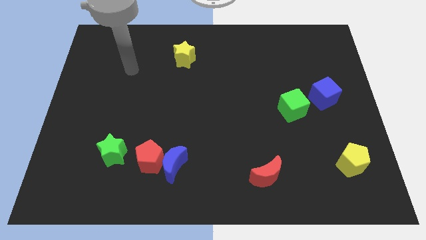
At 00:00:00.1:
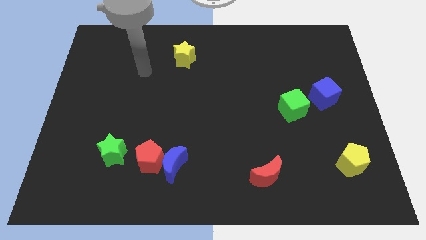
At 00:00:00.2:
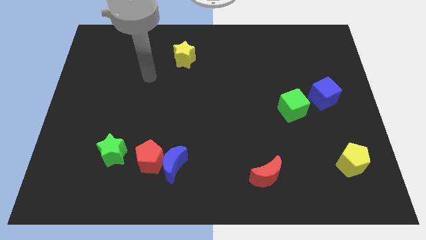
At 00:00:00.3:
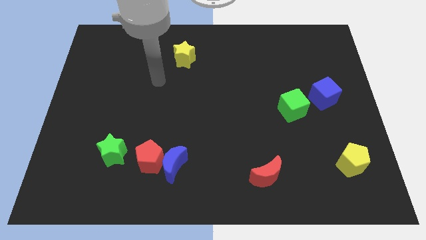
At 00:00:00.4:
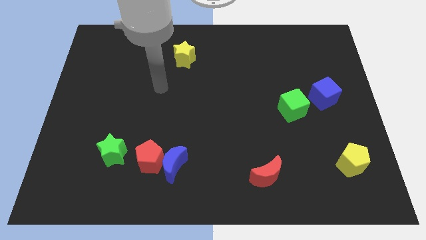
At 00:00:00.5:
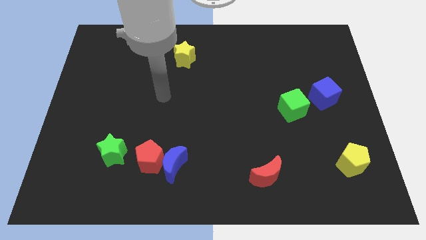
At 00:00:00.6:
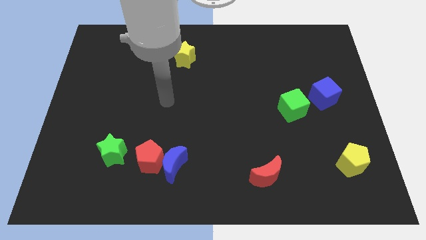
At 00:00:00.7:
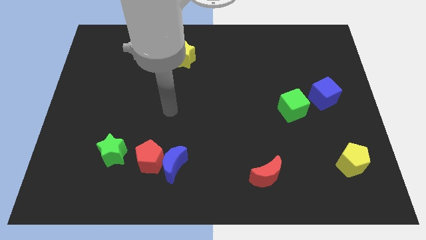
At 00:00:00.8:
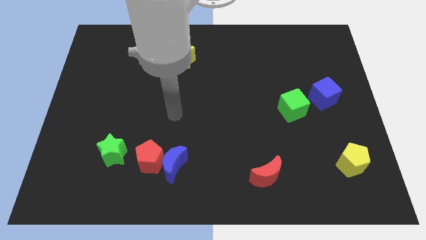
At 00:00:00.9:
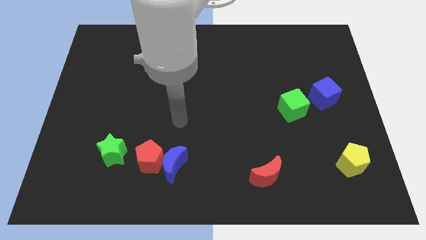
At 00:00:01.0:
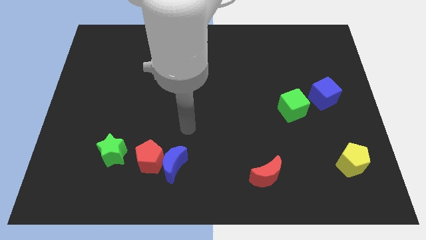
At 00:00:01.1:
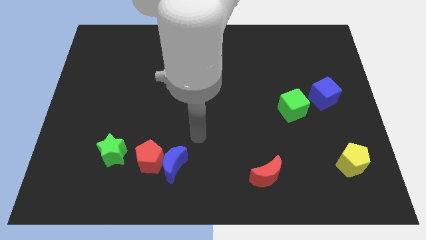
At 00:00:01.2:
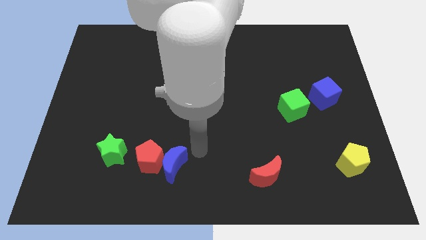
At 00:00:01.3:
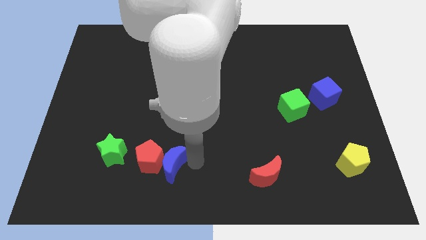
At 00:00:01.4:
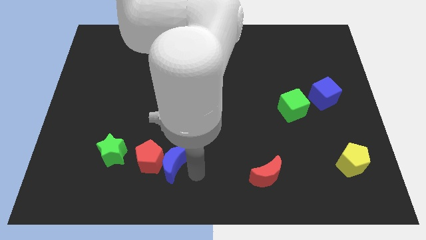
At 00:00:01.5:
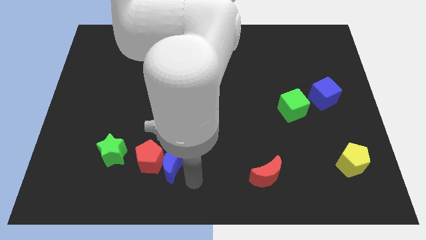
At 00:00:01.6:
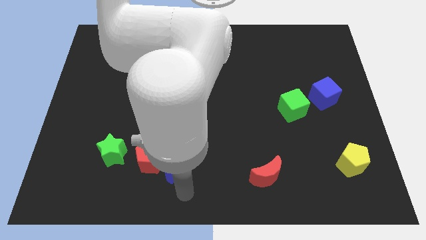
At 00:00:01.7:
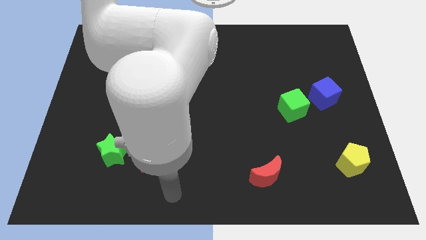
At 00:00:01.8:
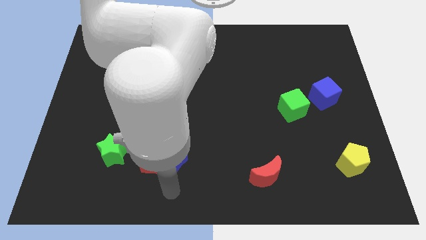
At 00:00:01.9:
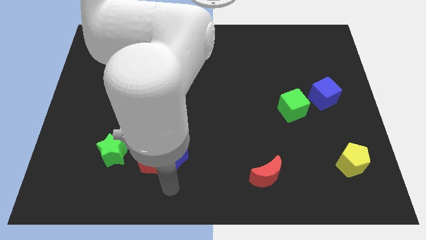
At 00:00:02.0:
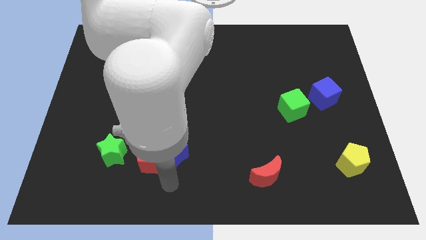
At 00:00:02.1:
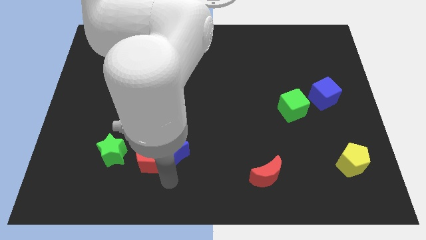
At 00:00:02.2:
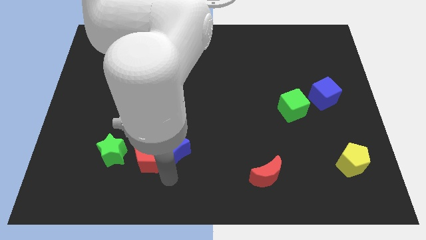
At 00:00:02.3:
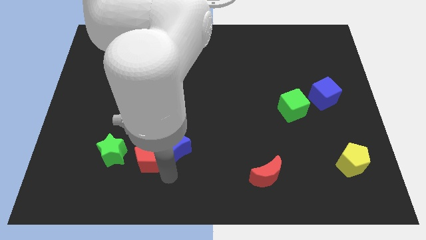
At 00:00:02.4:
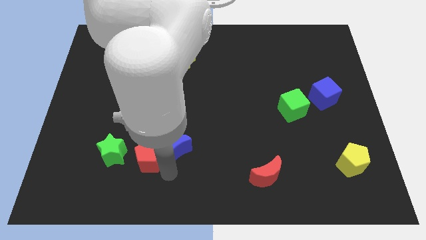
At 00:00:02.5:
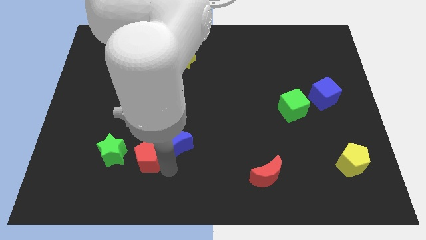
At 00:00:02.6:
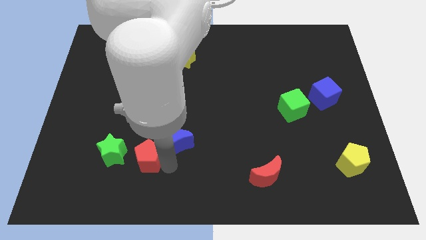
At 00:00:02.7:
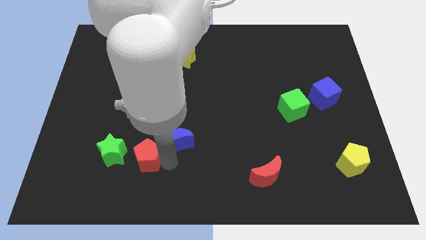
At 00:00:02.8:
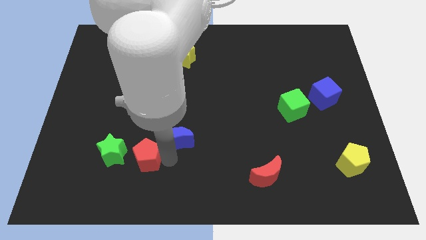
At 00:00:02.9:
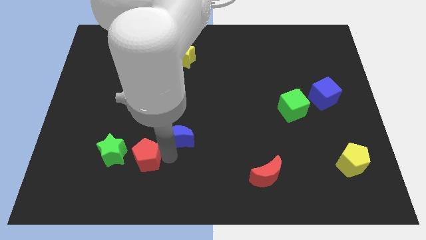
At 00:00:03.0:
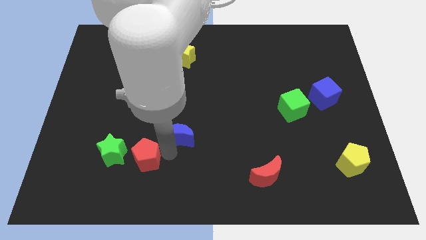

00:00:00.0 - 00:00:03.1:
slide the blue moon somewhat up

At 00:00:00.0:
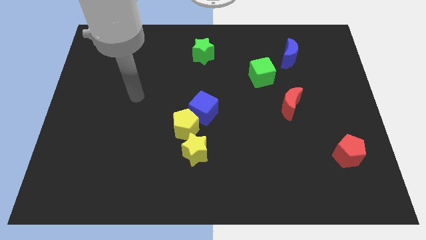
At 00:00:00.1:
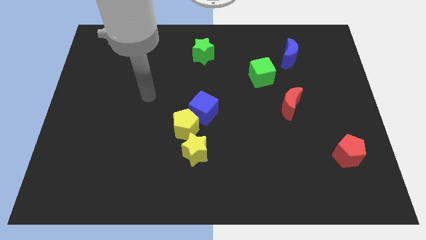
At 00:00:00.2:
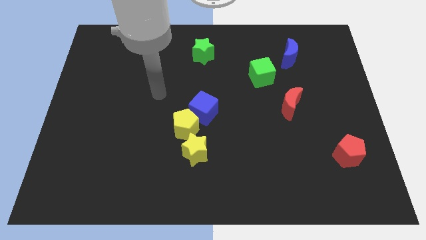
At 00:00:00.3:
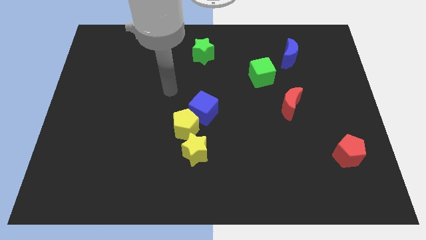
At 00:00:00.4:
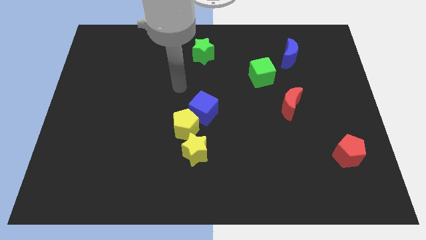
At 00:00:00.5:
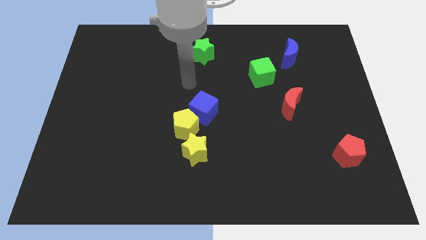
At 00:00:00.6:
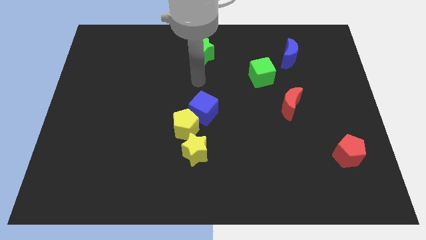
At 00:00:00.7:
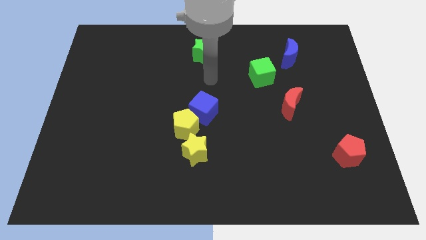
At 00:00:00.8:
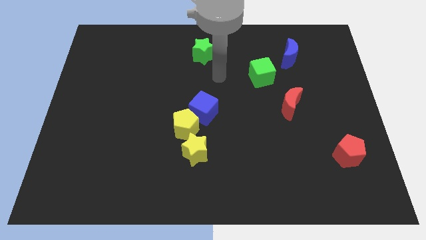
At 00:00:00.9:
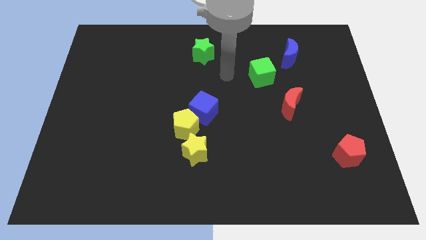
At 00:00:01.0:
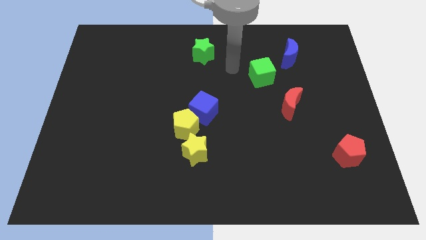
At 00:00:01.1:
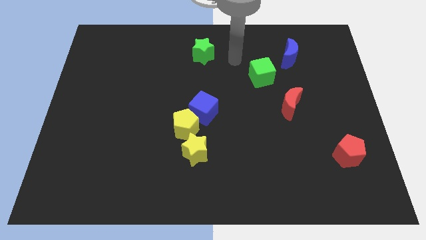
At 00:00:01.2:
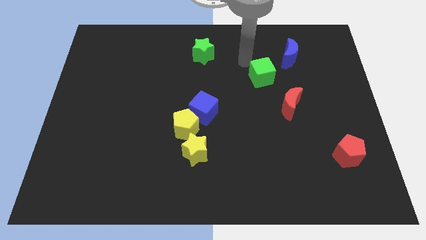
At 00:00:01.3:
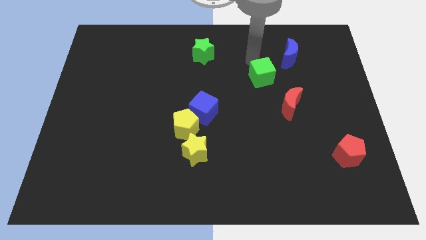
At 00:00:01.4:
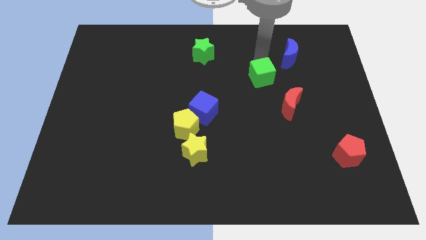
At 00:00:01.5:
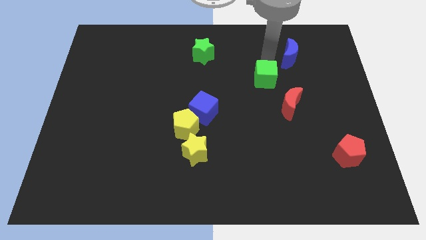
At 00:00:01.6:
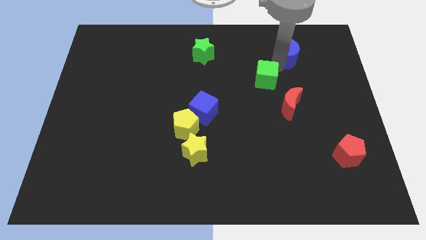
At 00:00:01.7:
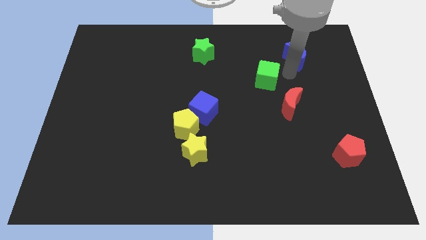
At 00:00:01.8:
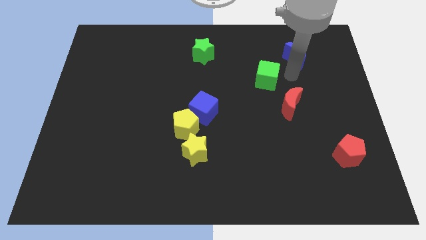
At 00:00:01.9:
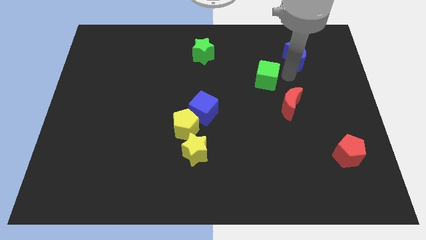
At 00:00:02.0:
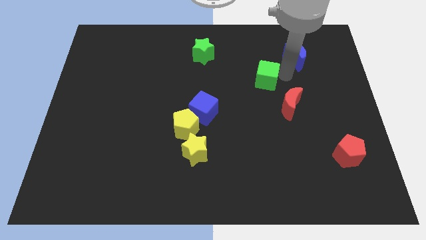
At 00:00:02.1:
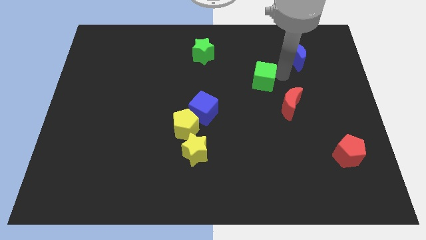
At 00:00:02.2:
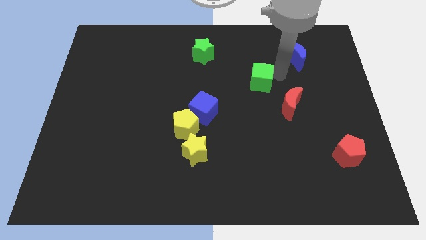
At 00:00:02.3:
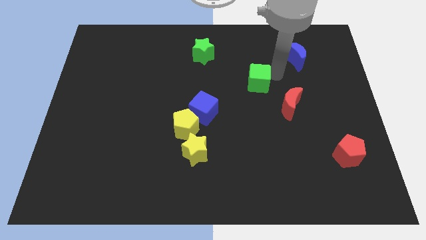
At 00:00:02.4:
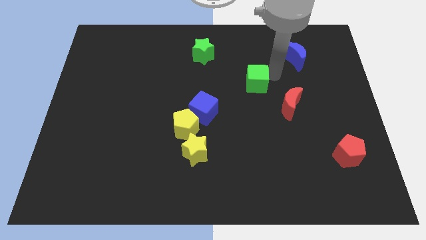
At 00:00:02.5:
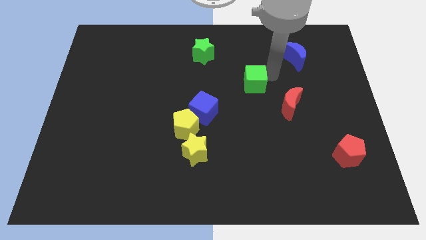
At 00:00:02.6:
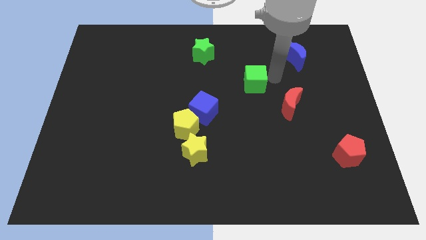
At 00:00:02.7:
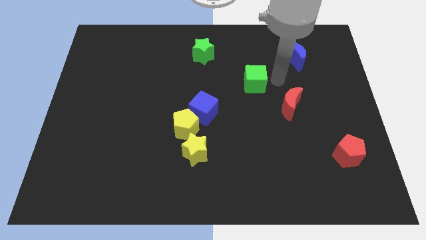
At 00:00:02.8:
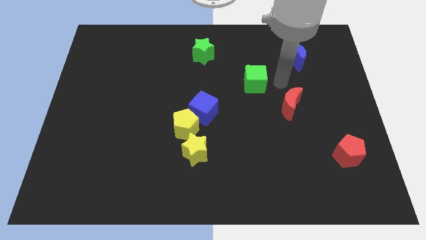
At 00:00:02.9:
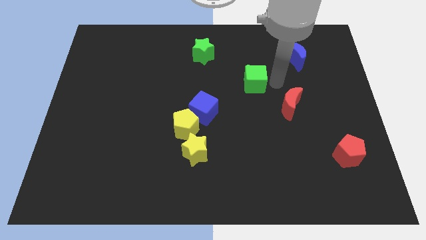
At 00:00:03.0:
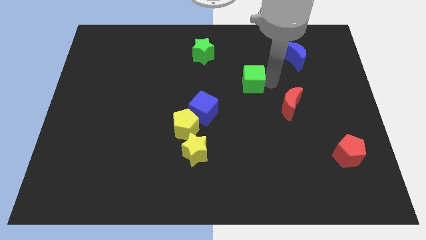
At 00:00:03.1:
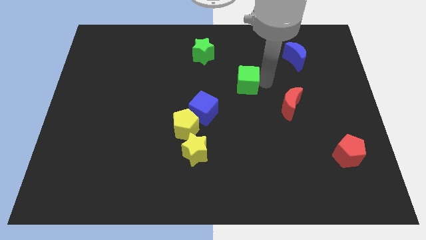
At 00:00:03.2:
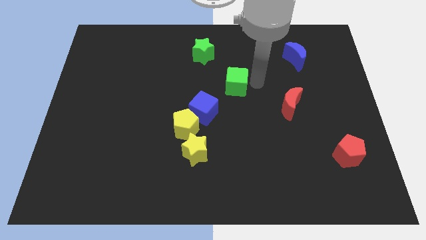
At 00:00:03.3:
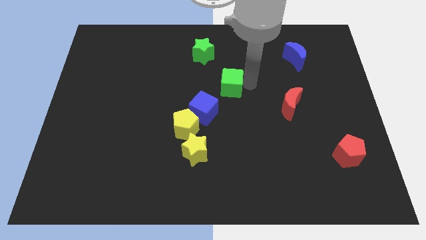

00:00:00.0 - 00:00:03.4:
slightly move the green cube left

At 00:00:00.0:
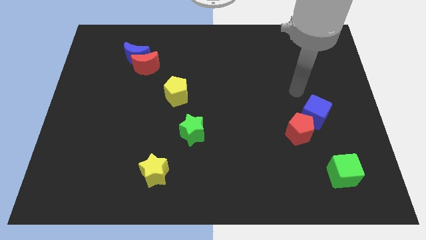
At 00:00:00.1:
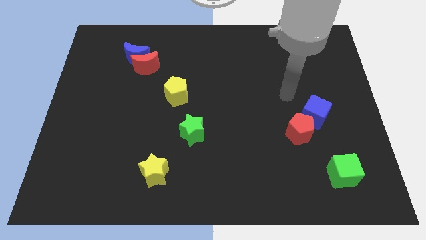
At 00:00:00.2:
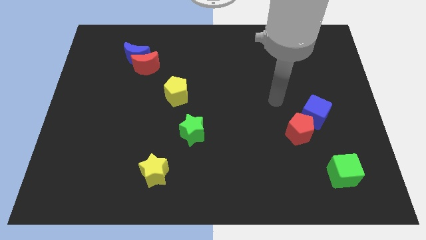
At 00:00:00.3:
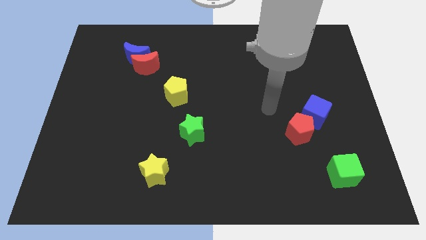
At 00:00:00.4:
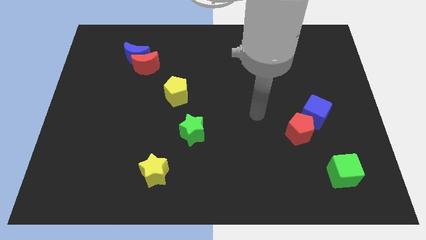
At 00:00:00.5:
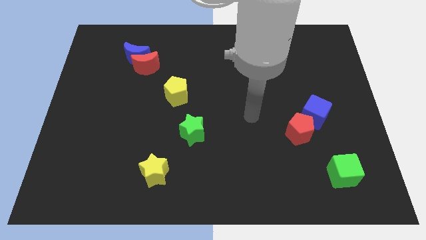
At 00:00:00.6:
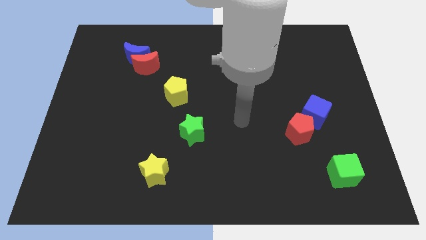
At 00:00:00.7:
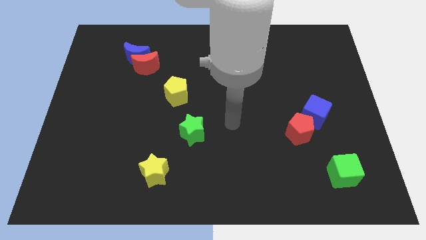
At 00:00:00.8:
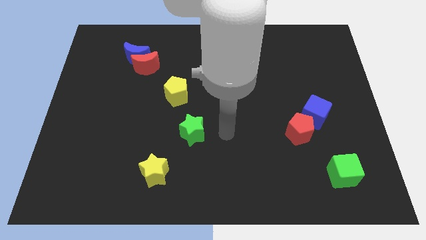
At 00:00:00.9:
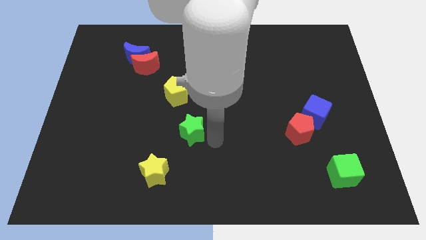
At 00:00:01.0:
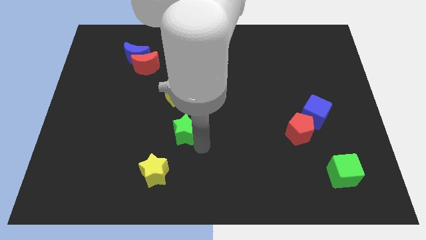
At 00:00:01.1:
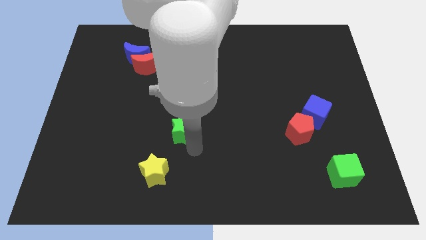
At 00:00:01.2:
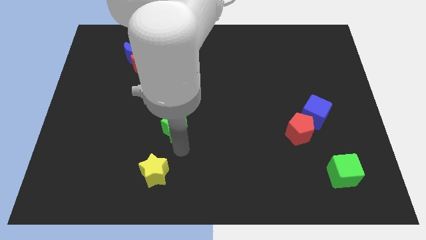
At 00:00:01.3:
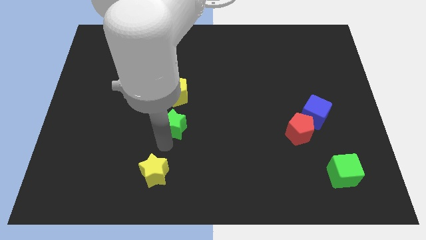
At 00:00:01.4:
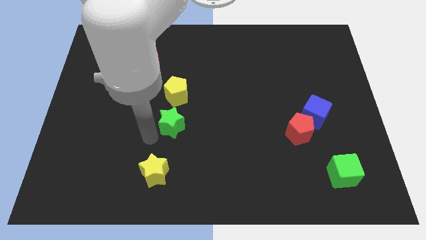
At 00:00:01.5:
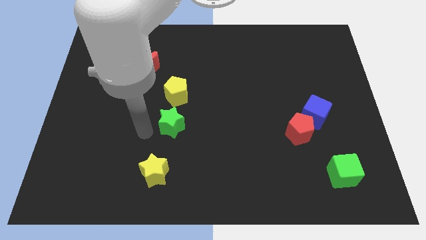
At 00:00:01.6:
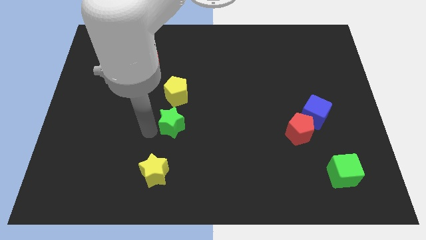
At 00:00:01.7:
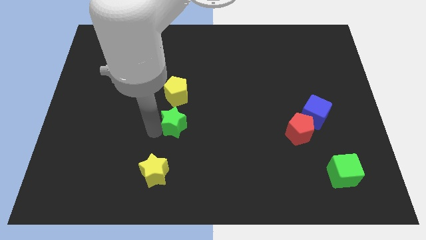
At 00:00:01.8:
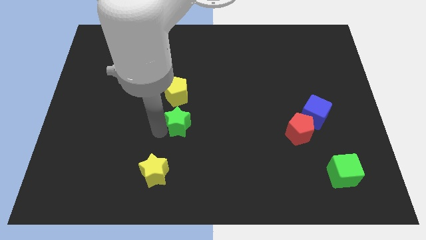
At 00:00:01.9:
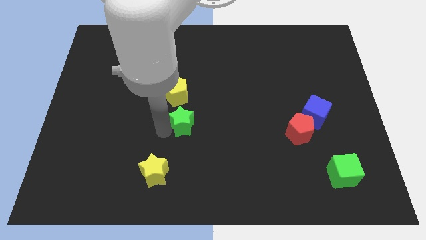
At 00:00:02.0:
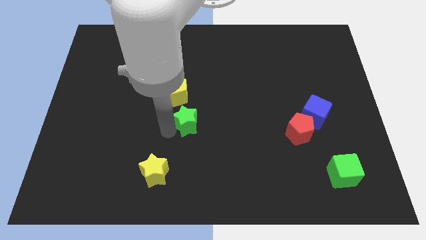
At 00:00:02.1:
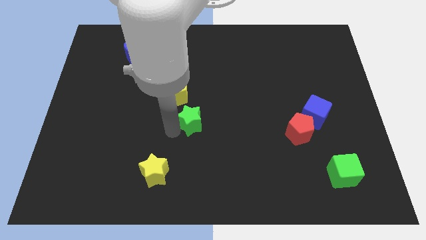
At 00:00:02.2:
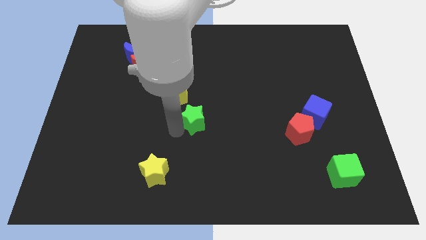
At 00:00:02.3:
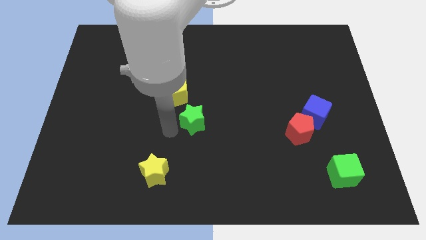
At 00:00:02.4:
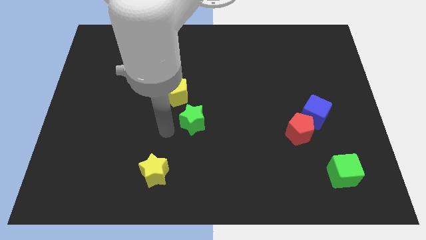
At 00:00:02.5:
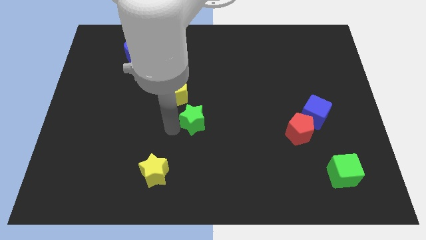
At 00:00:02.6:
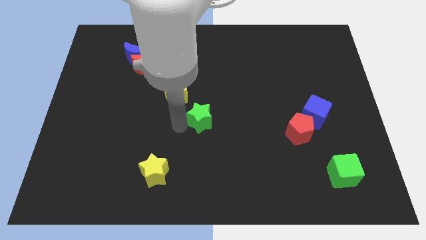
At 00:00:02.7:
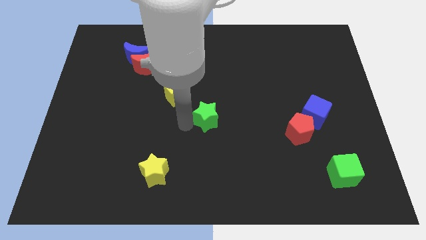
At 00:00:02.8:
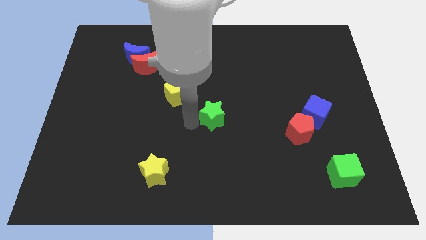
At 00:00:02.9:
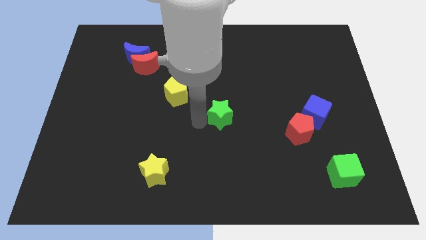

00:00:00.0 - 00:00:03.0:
push the green star slightly diagonally up and to the right
